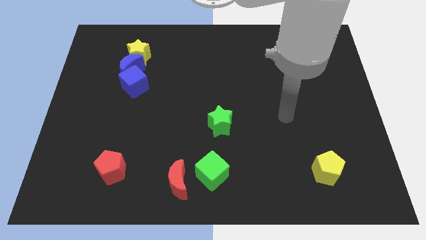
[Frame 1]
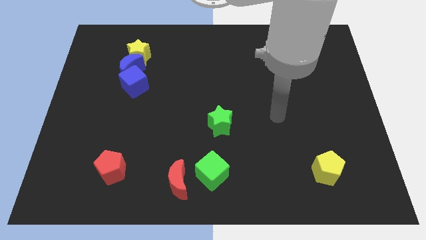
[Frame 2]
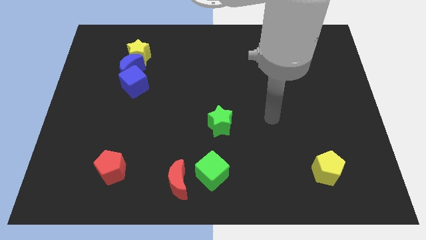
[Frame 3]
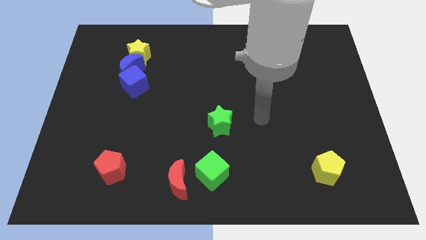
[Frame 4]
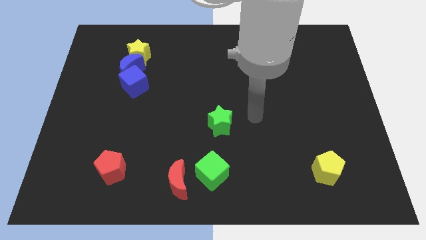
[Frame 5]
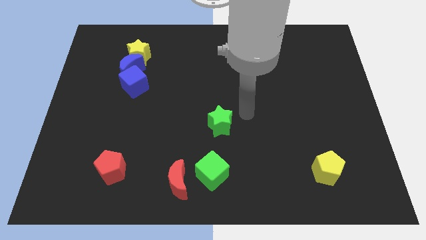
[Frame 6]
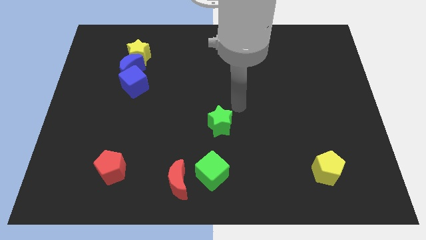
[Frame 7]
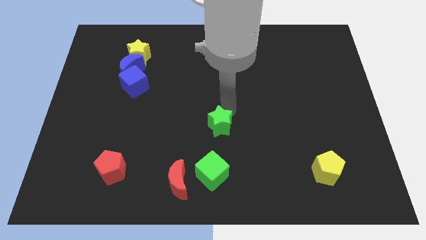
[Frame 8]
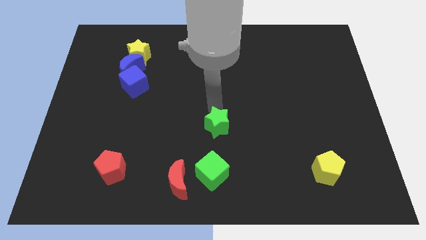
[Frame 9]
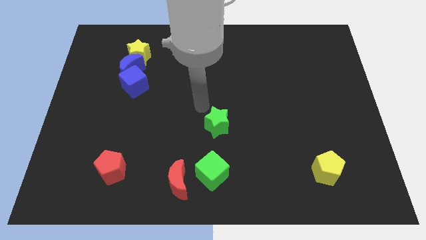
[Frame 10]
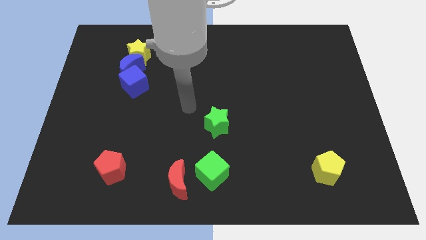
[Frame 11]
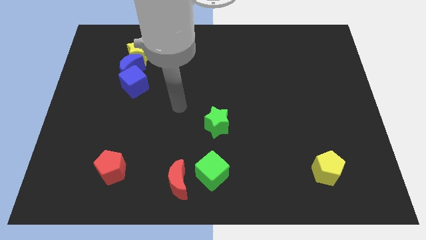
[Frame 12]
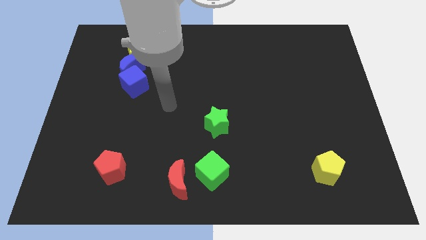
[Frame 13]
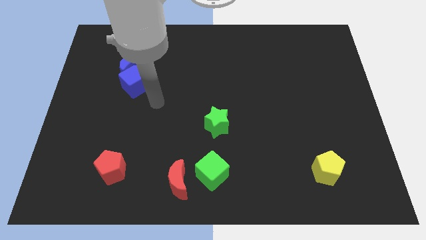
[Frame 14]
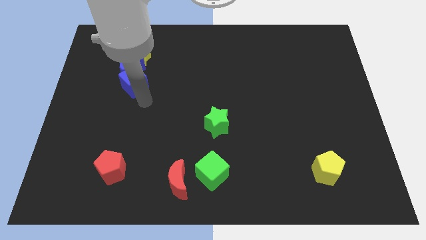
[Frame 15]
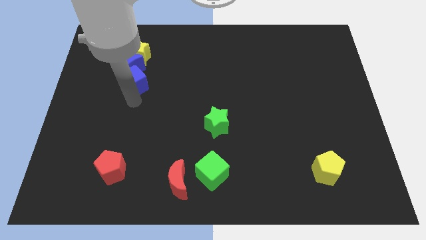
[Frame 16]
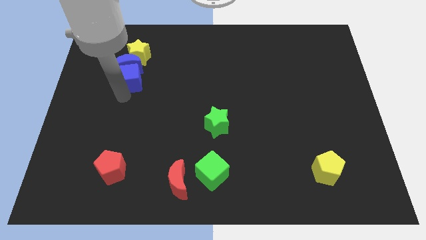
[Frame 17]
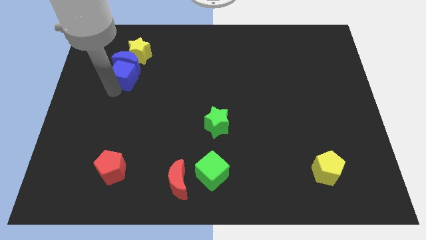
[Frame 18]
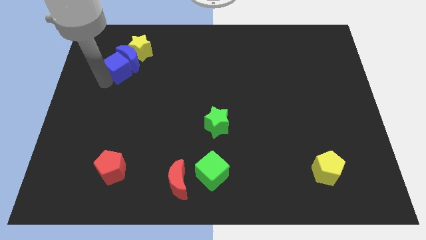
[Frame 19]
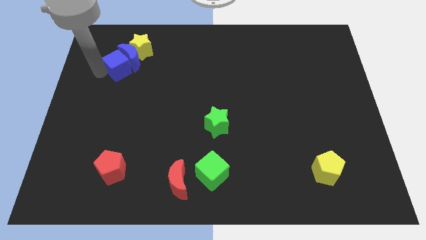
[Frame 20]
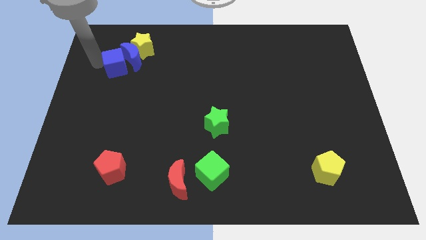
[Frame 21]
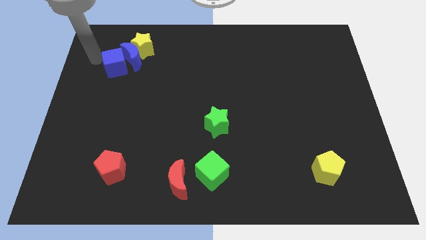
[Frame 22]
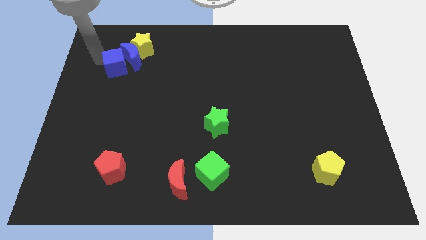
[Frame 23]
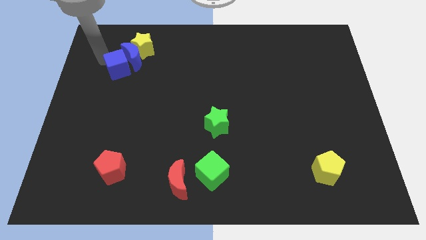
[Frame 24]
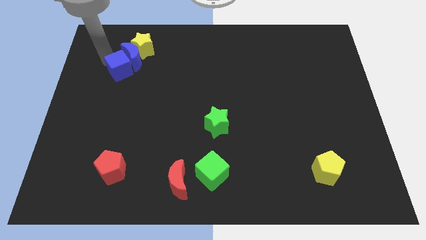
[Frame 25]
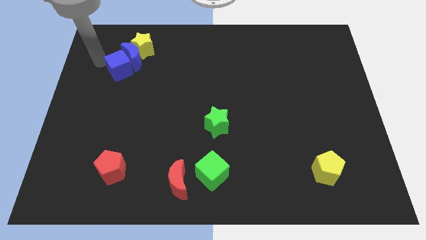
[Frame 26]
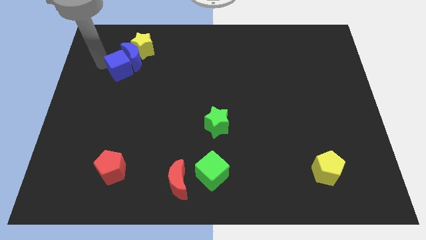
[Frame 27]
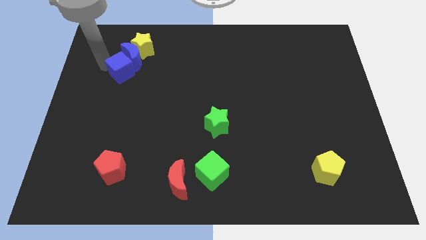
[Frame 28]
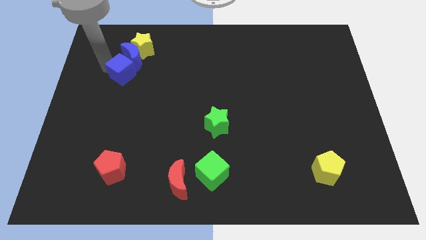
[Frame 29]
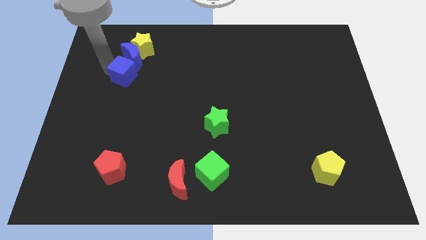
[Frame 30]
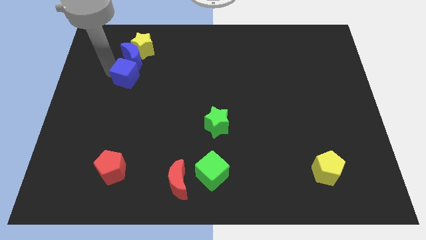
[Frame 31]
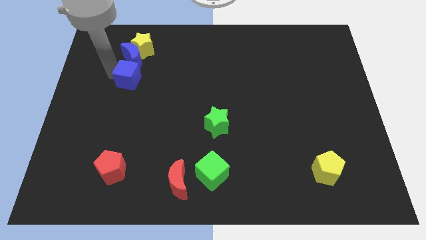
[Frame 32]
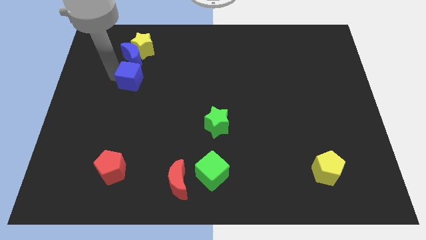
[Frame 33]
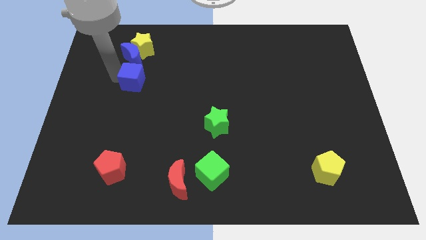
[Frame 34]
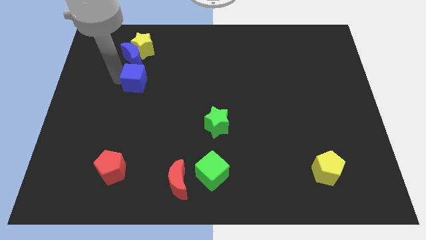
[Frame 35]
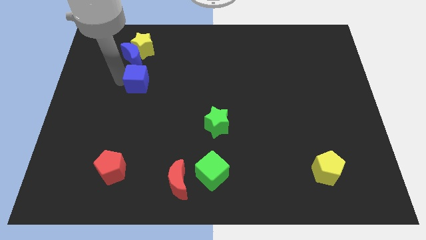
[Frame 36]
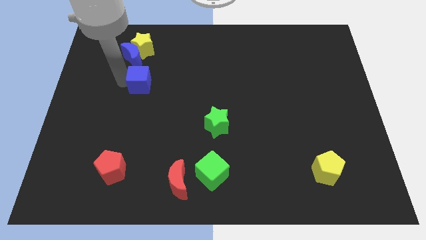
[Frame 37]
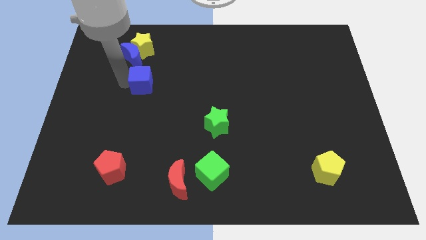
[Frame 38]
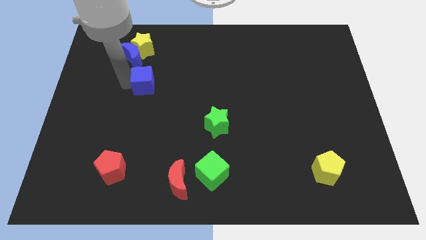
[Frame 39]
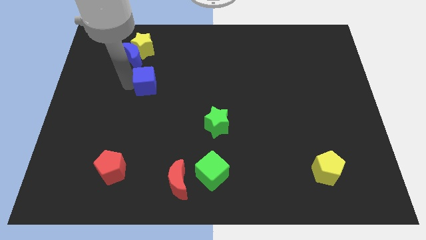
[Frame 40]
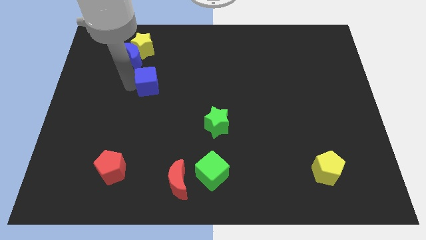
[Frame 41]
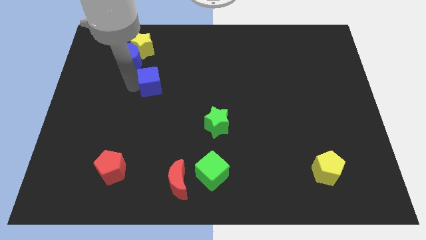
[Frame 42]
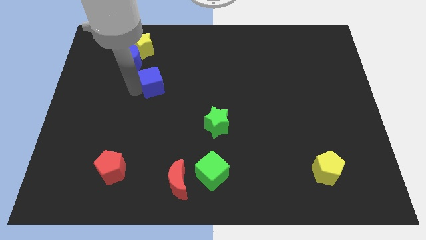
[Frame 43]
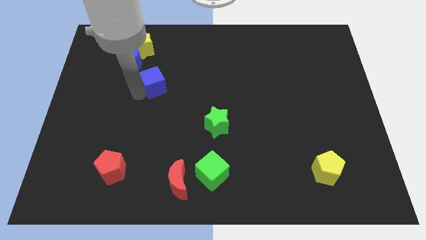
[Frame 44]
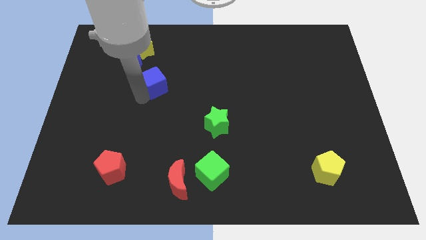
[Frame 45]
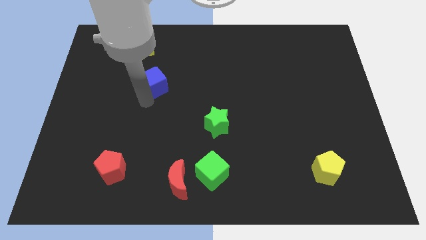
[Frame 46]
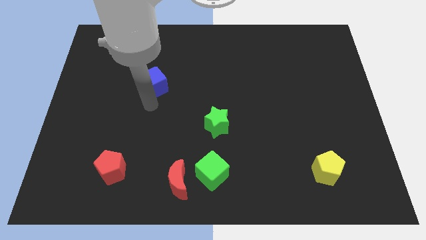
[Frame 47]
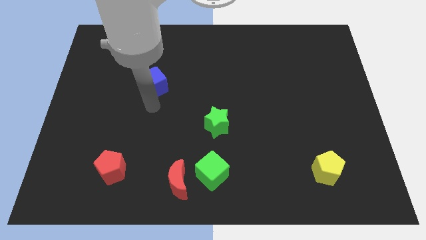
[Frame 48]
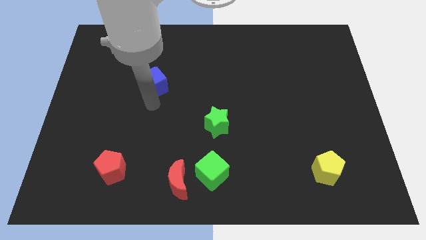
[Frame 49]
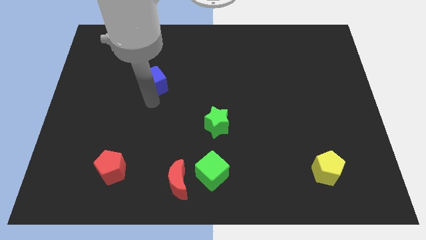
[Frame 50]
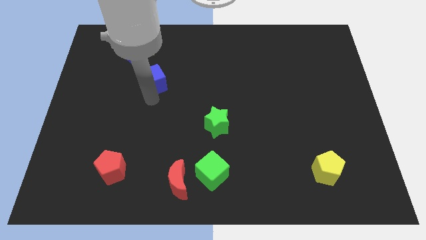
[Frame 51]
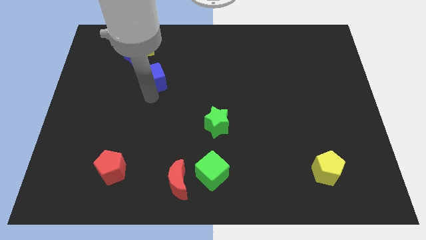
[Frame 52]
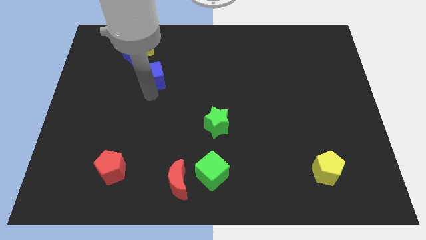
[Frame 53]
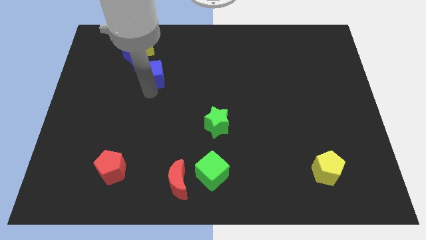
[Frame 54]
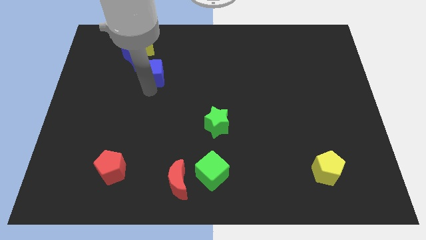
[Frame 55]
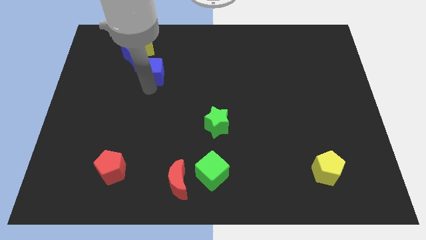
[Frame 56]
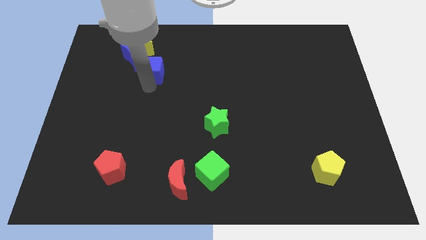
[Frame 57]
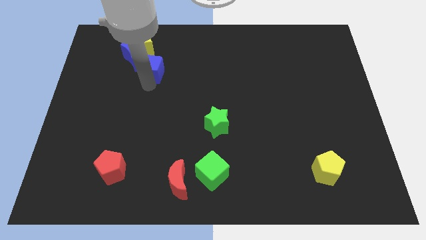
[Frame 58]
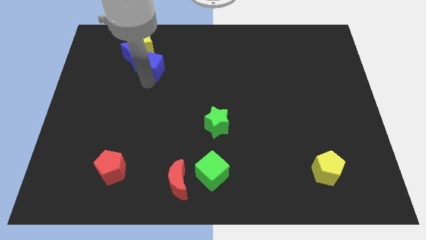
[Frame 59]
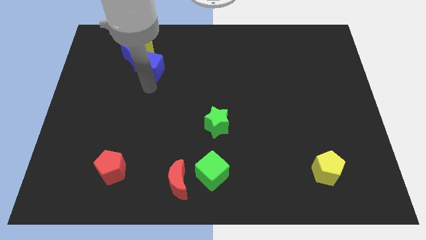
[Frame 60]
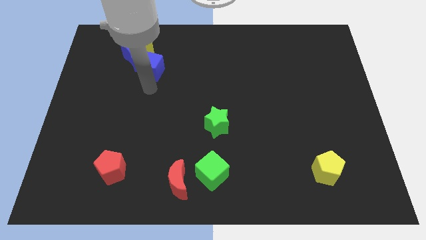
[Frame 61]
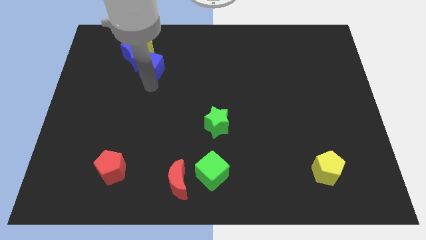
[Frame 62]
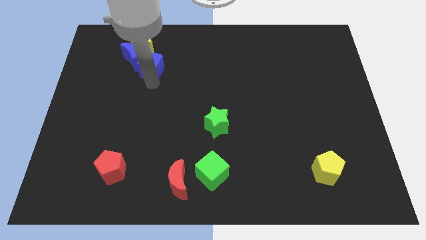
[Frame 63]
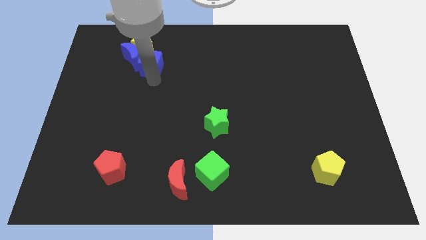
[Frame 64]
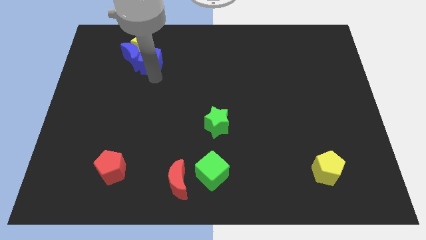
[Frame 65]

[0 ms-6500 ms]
put the blue cube to the top right of the blue moon

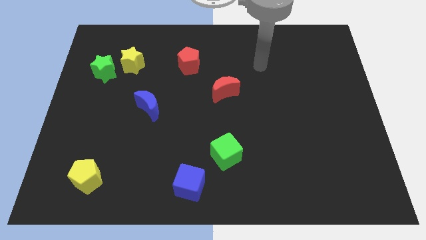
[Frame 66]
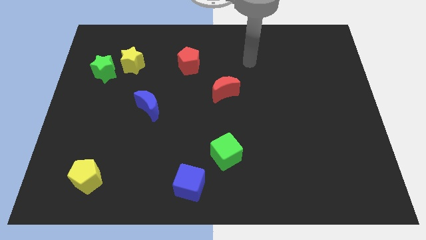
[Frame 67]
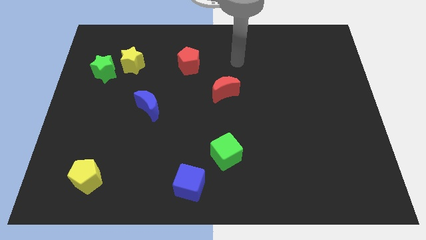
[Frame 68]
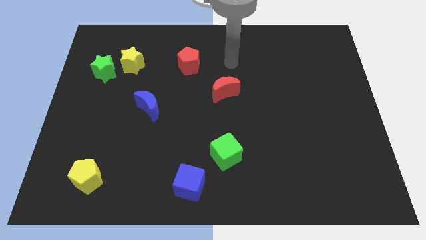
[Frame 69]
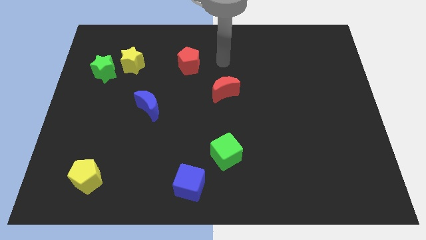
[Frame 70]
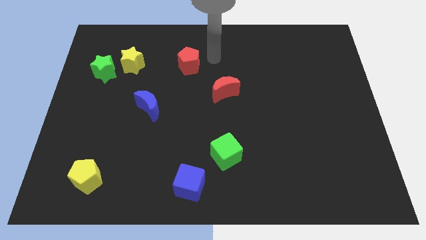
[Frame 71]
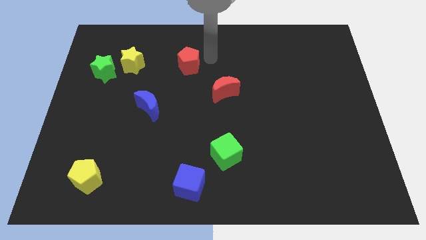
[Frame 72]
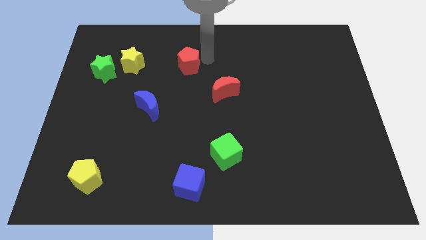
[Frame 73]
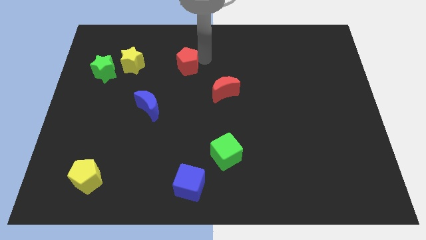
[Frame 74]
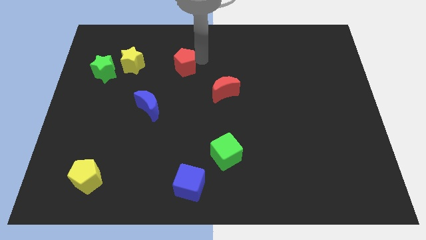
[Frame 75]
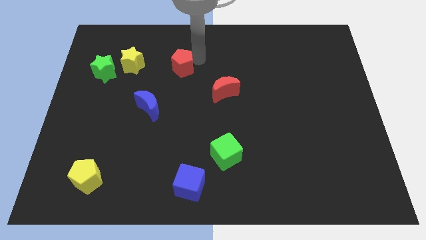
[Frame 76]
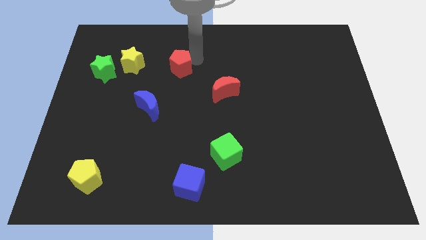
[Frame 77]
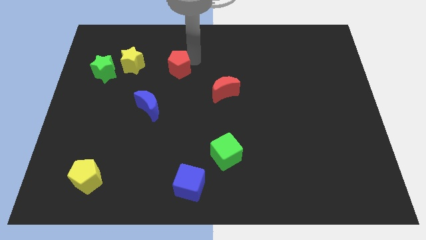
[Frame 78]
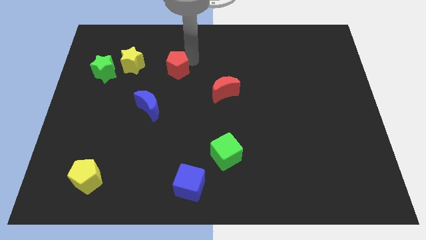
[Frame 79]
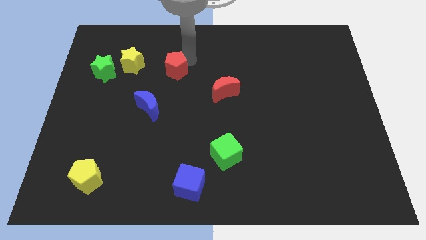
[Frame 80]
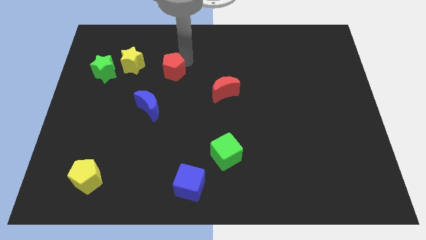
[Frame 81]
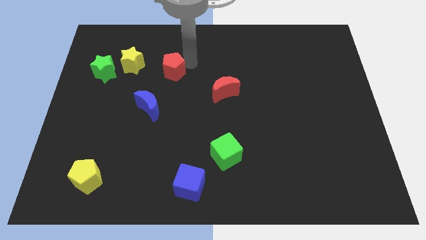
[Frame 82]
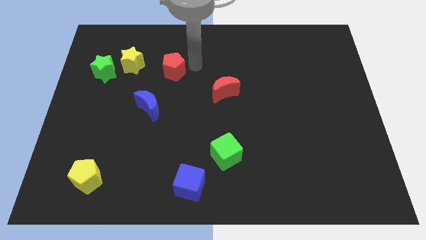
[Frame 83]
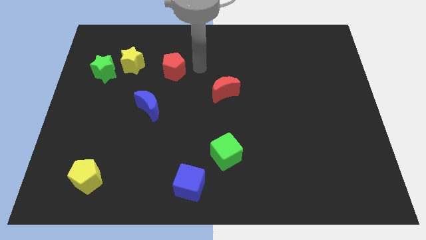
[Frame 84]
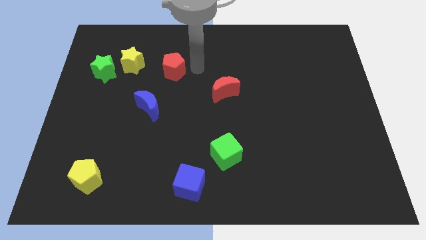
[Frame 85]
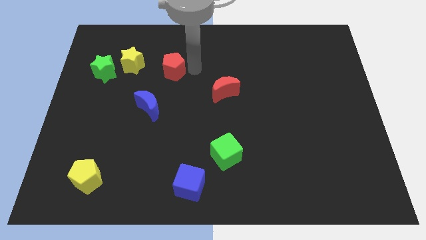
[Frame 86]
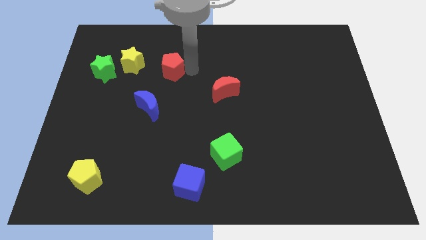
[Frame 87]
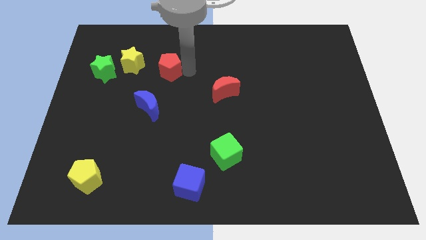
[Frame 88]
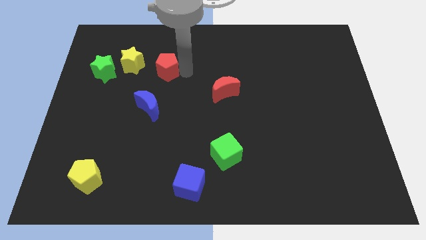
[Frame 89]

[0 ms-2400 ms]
push the red pentagon right of the green star
